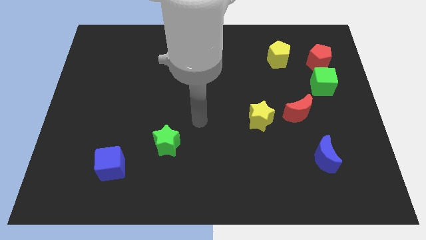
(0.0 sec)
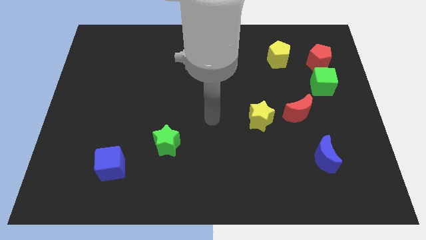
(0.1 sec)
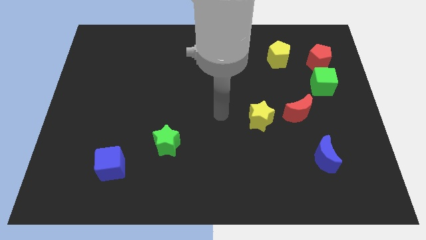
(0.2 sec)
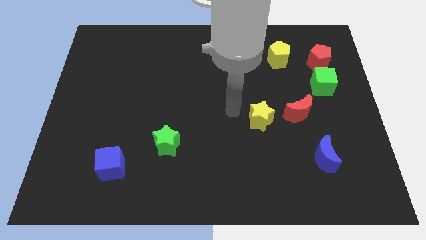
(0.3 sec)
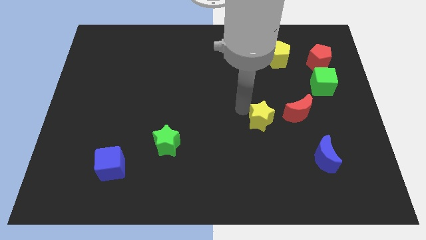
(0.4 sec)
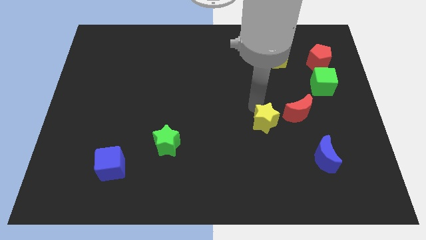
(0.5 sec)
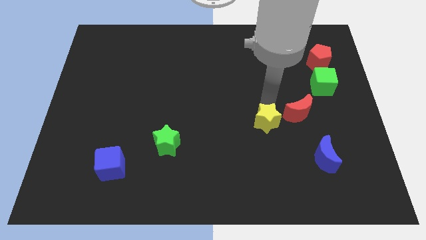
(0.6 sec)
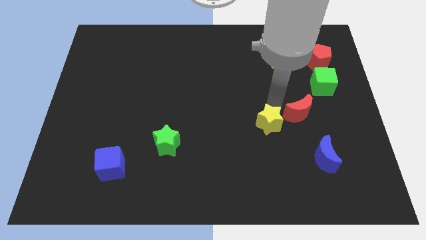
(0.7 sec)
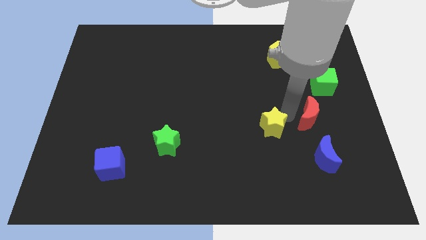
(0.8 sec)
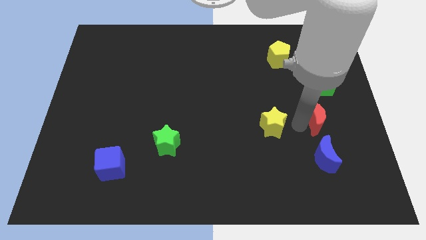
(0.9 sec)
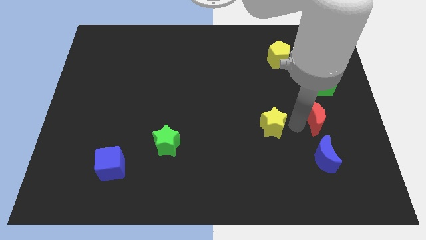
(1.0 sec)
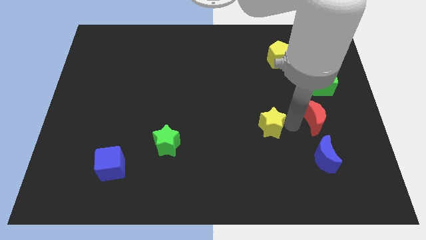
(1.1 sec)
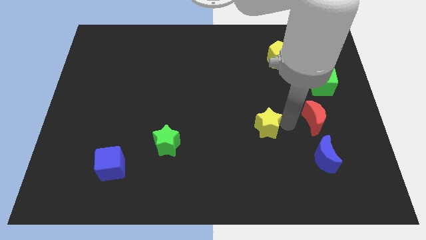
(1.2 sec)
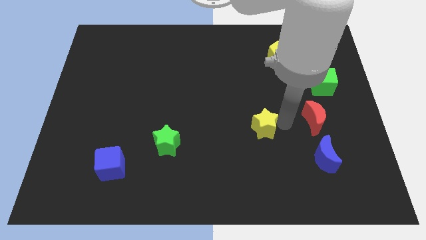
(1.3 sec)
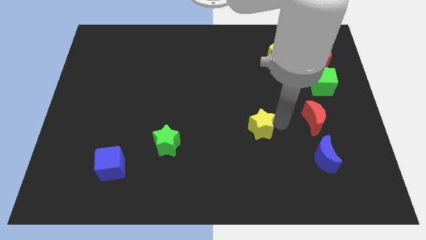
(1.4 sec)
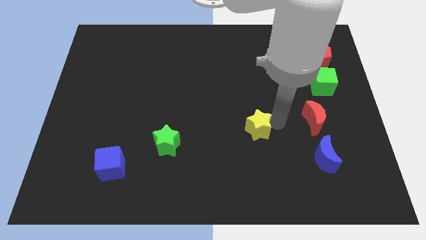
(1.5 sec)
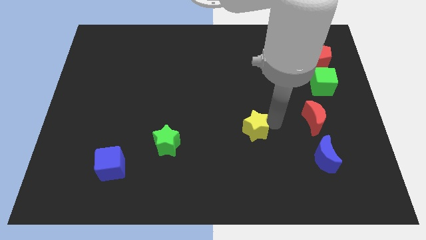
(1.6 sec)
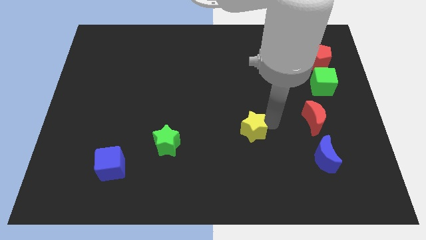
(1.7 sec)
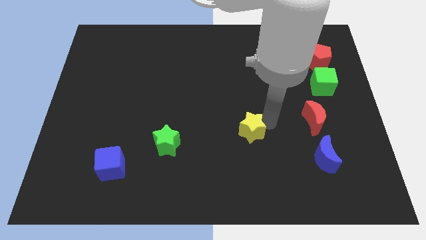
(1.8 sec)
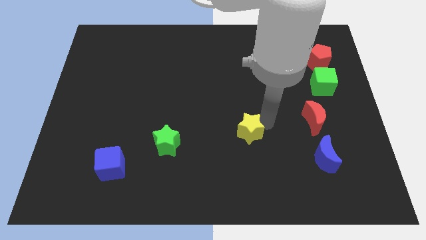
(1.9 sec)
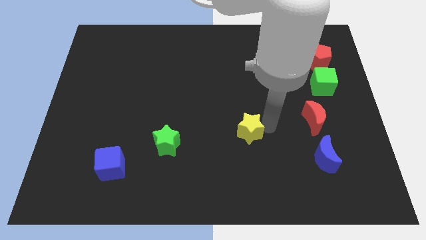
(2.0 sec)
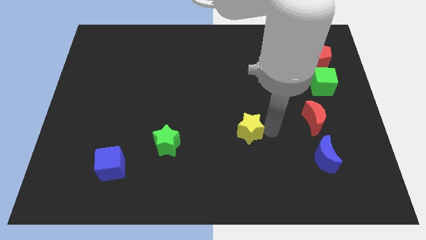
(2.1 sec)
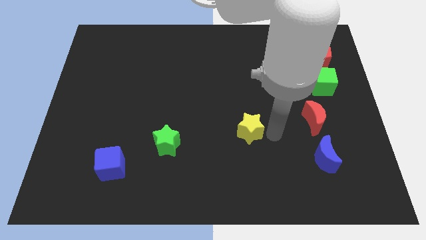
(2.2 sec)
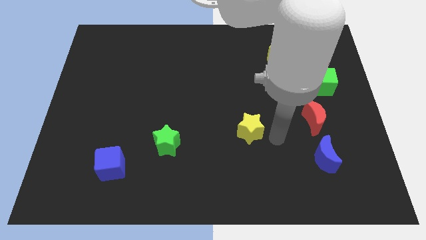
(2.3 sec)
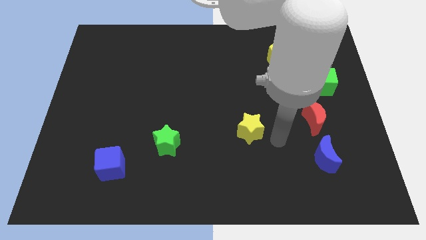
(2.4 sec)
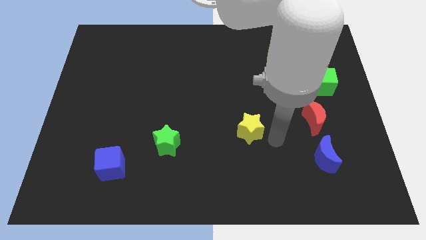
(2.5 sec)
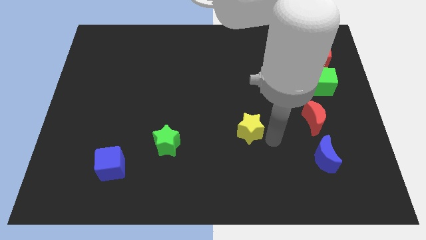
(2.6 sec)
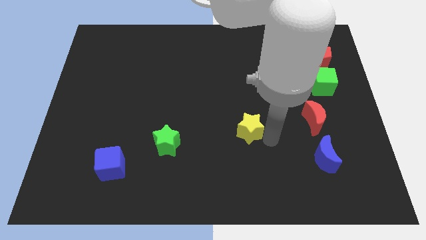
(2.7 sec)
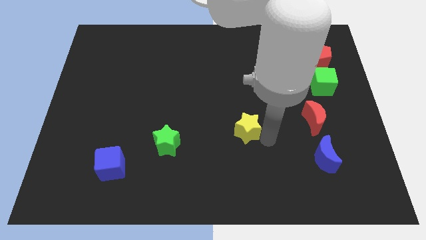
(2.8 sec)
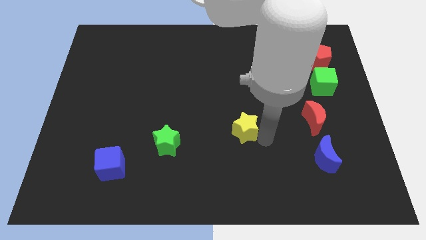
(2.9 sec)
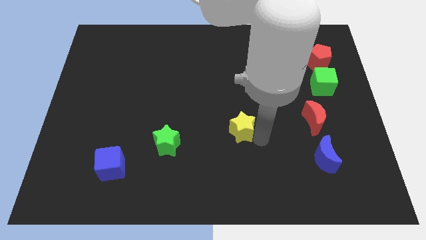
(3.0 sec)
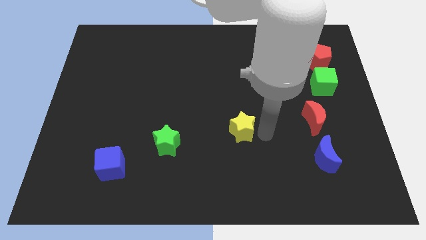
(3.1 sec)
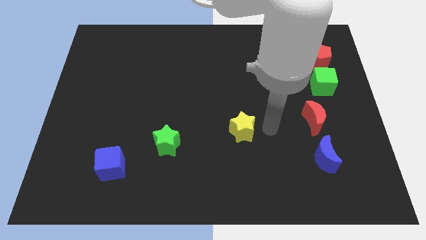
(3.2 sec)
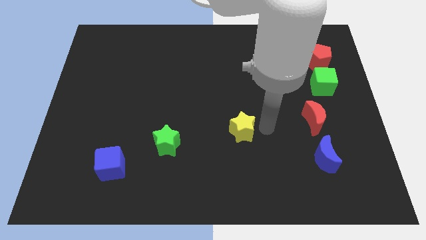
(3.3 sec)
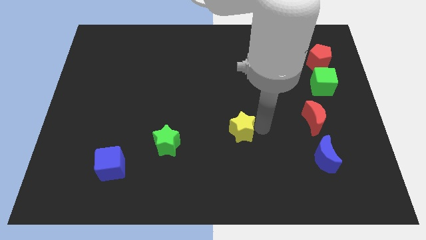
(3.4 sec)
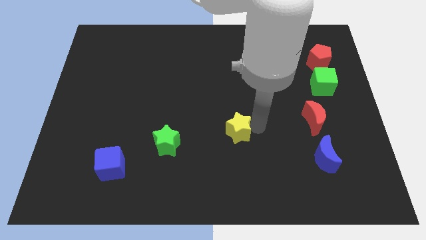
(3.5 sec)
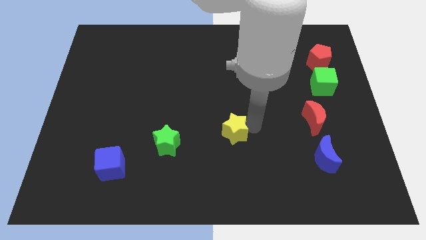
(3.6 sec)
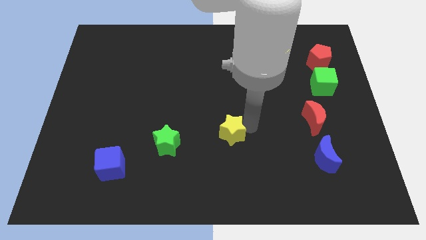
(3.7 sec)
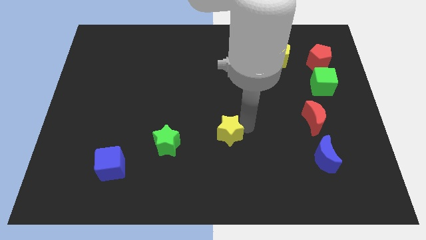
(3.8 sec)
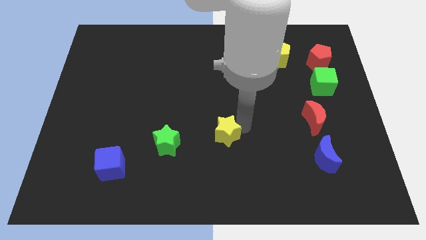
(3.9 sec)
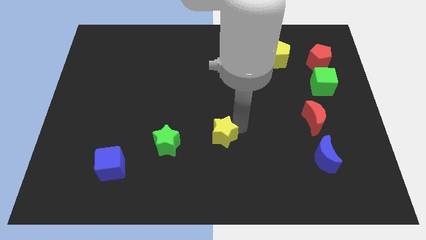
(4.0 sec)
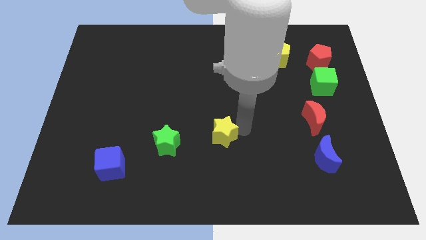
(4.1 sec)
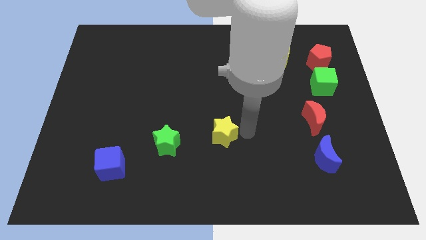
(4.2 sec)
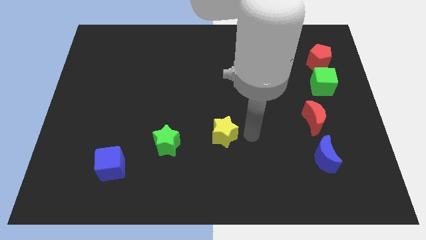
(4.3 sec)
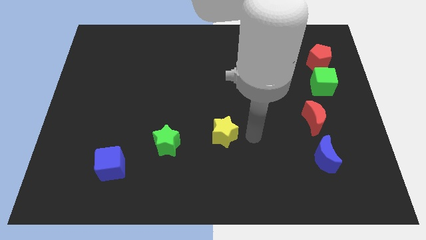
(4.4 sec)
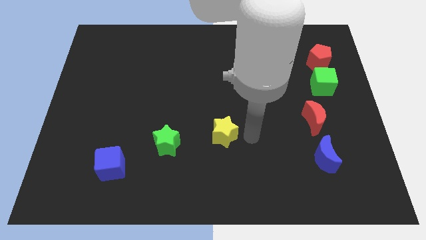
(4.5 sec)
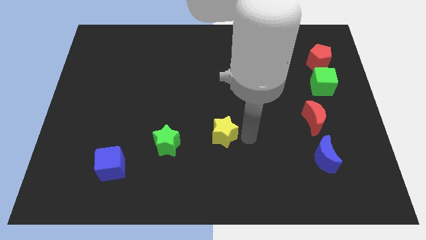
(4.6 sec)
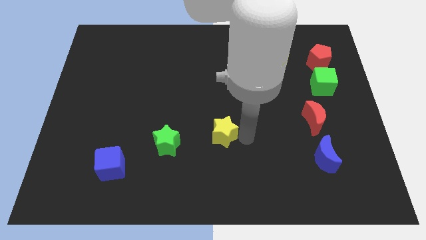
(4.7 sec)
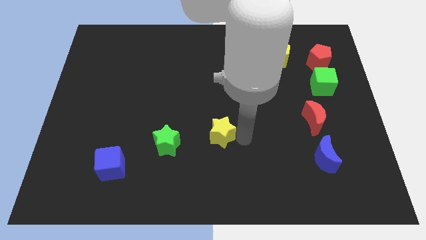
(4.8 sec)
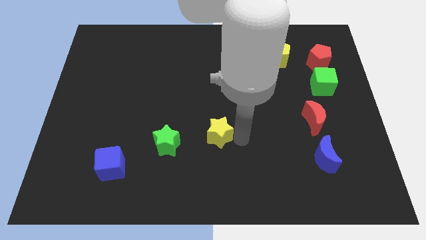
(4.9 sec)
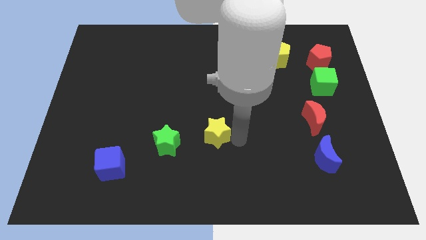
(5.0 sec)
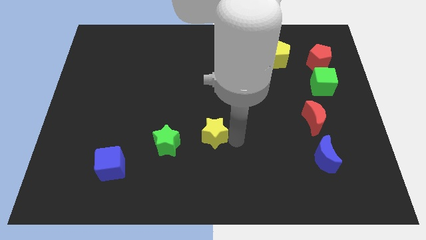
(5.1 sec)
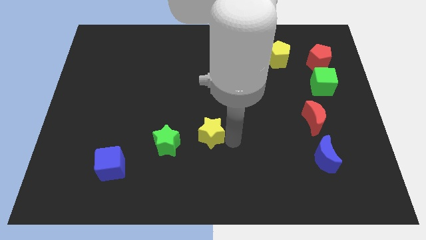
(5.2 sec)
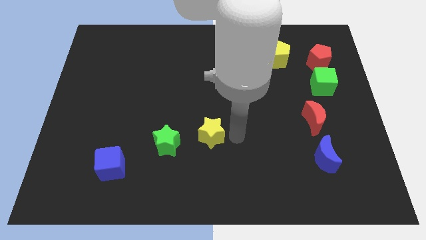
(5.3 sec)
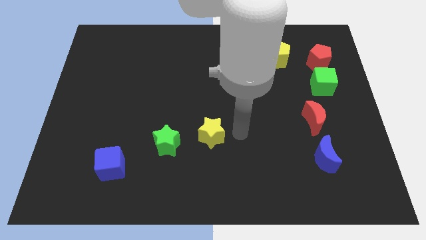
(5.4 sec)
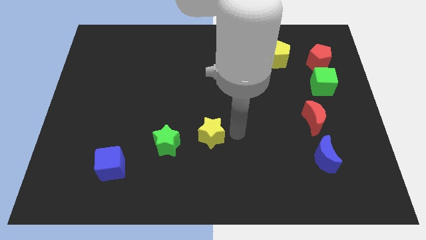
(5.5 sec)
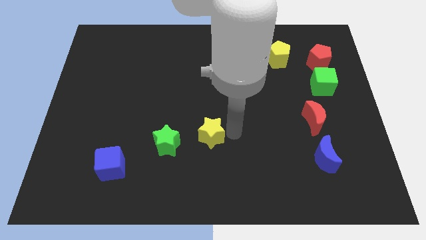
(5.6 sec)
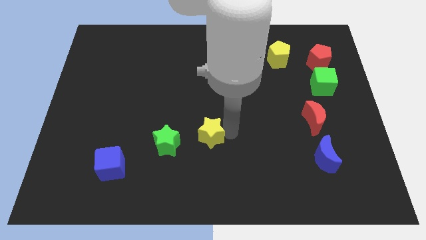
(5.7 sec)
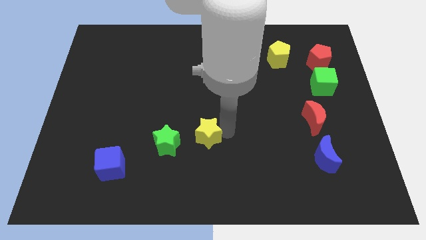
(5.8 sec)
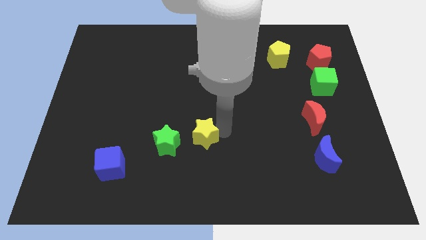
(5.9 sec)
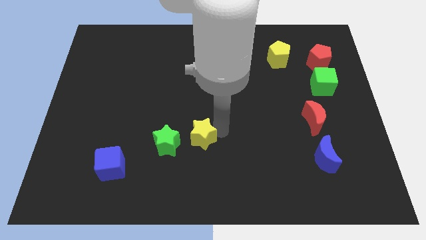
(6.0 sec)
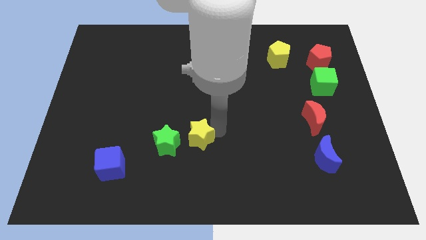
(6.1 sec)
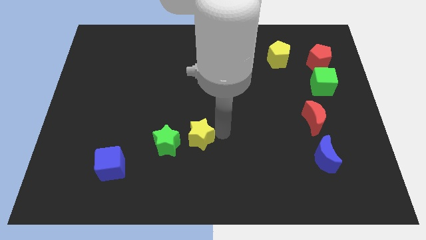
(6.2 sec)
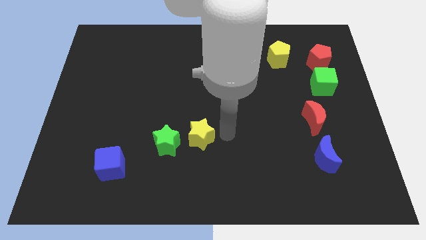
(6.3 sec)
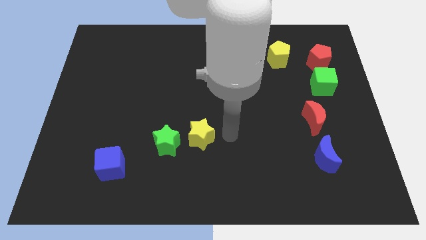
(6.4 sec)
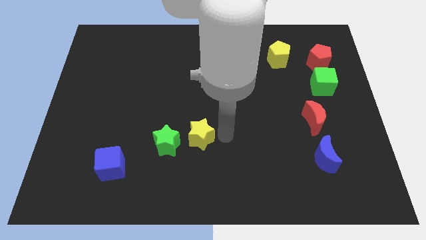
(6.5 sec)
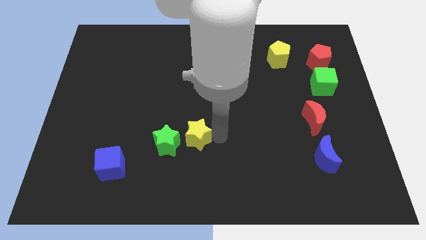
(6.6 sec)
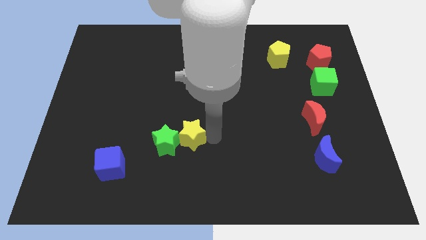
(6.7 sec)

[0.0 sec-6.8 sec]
move the yellow star towards the green star

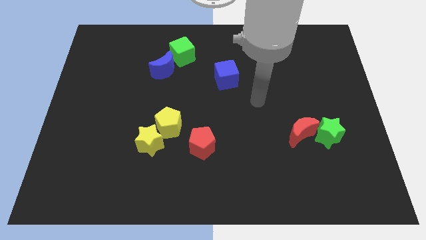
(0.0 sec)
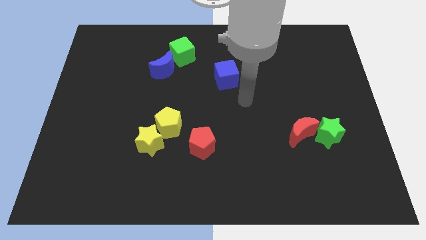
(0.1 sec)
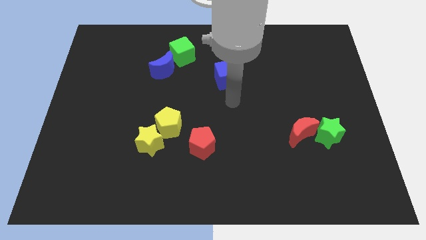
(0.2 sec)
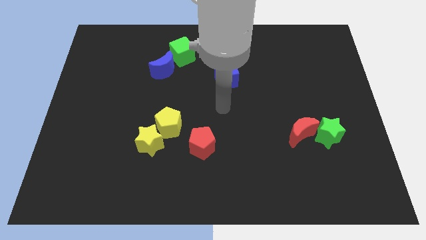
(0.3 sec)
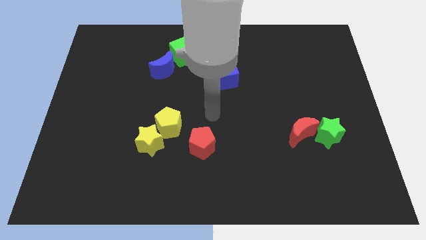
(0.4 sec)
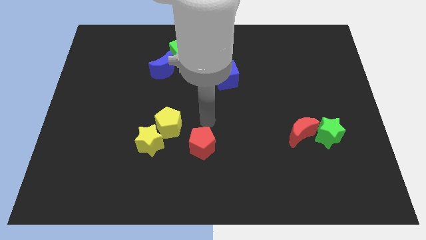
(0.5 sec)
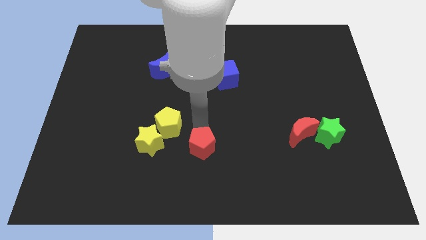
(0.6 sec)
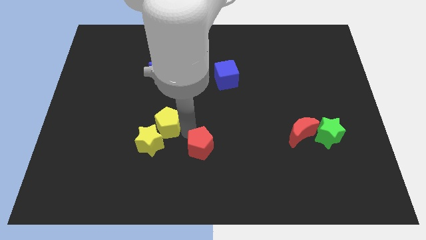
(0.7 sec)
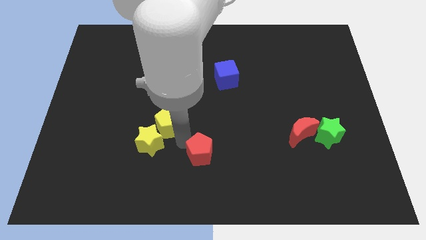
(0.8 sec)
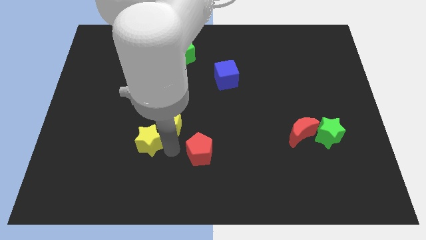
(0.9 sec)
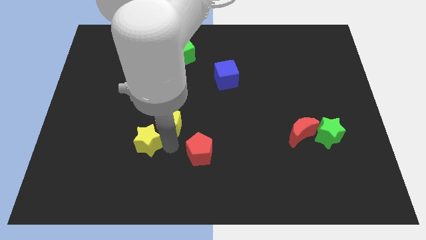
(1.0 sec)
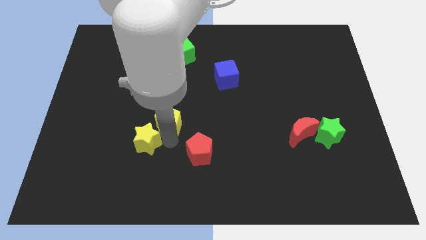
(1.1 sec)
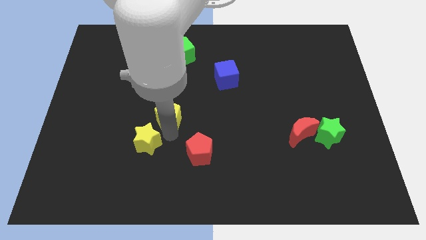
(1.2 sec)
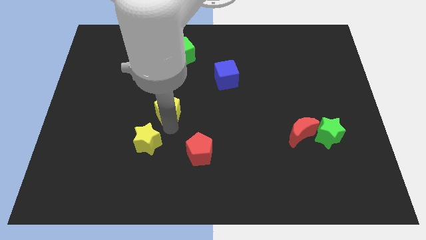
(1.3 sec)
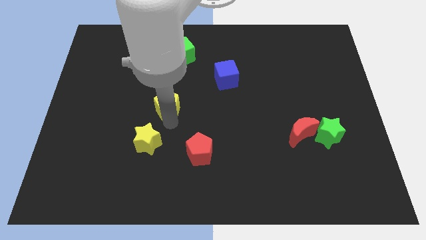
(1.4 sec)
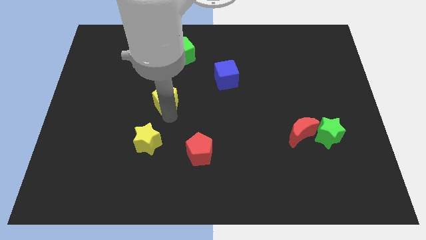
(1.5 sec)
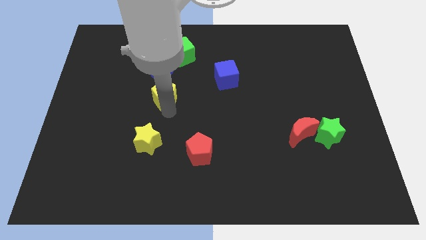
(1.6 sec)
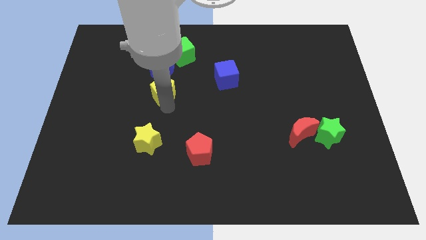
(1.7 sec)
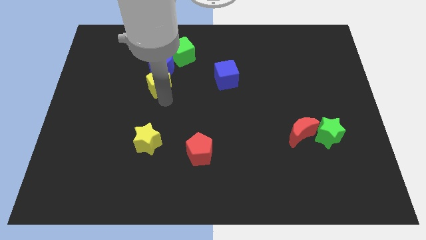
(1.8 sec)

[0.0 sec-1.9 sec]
slide the yellow pentagon towards the blue moon
